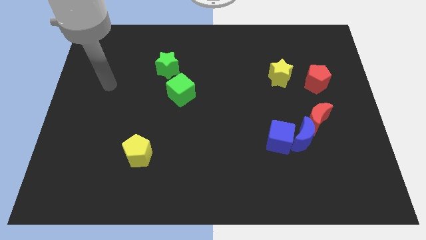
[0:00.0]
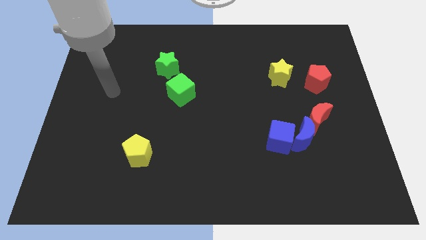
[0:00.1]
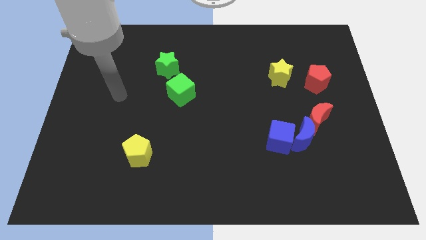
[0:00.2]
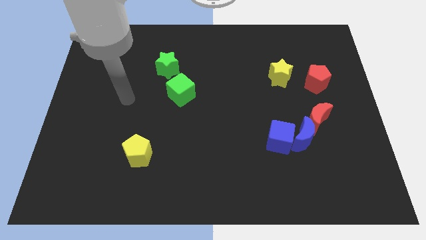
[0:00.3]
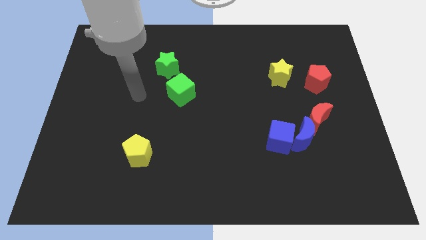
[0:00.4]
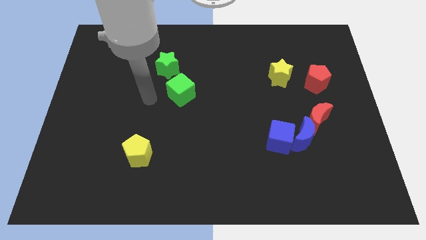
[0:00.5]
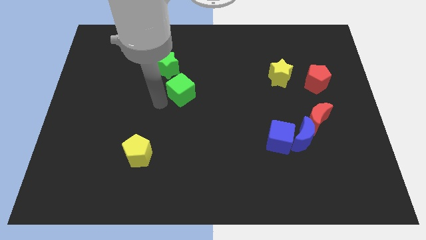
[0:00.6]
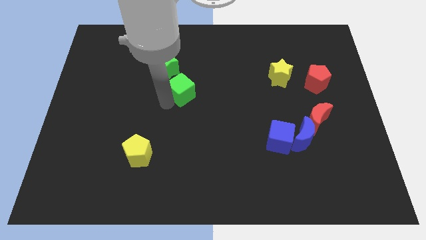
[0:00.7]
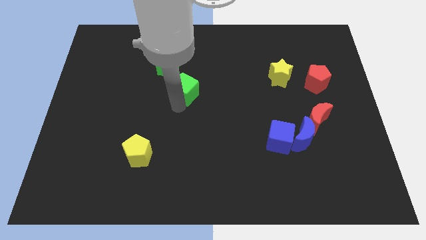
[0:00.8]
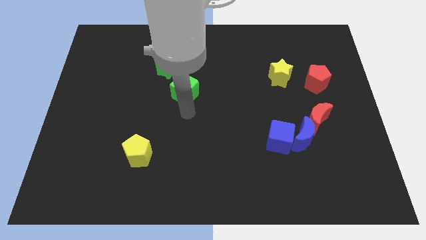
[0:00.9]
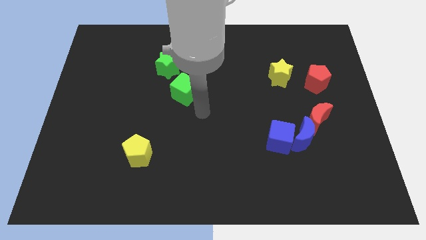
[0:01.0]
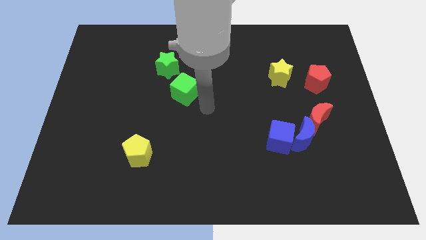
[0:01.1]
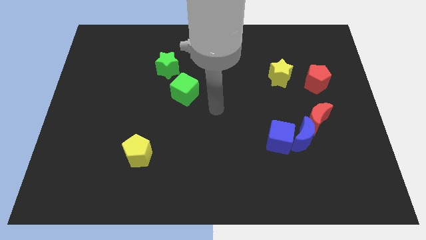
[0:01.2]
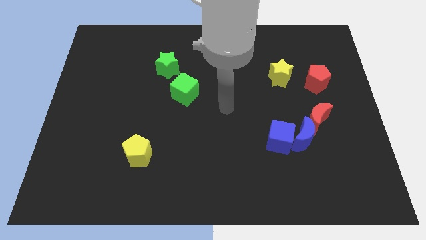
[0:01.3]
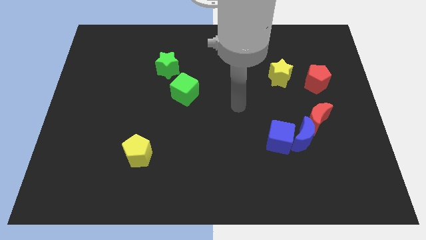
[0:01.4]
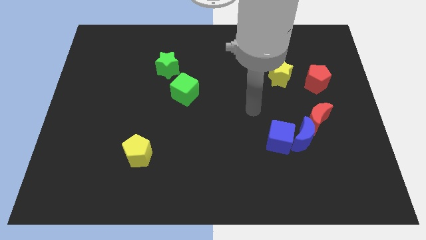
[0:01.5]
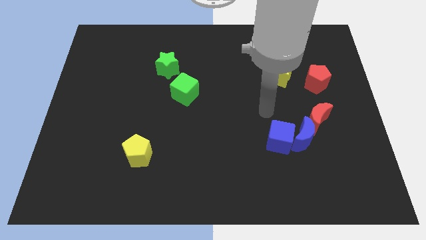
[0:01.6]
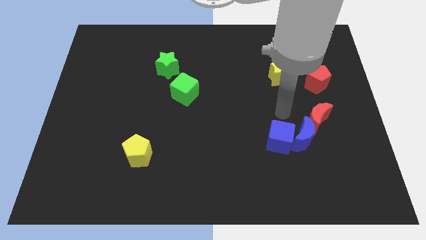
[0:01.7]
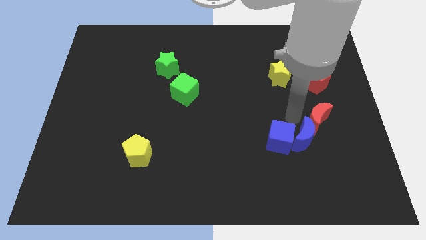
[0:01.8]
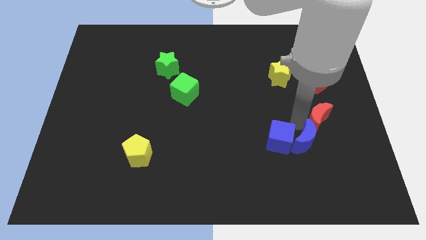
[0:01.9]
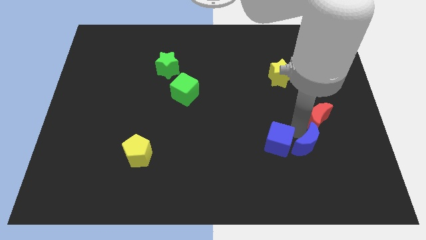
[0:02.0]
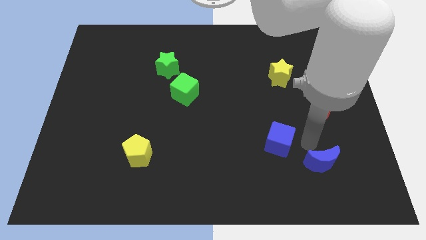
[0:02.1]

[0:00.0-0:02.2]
move the blue cube away from the blue moon

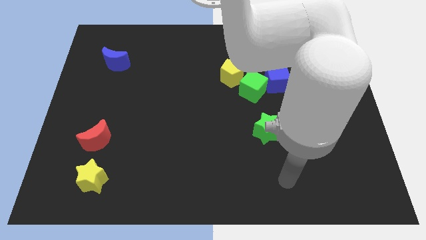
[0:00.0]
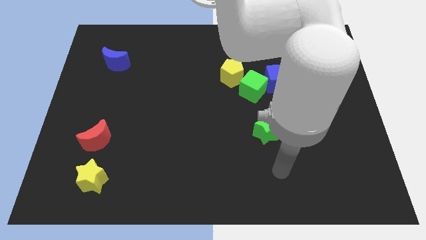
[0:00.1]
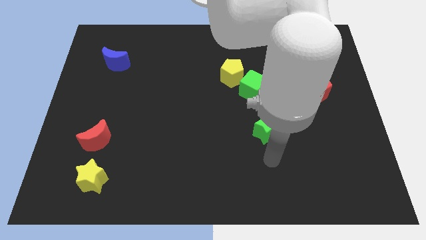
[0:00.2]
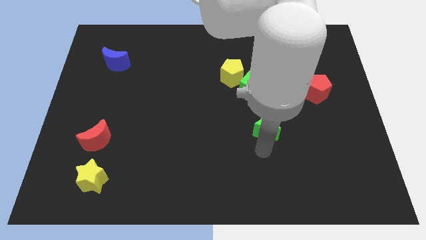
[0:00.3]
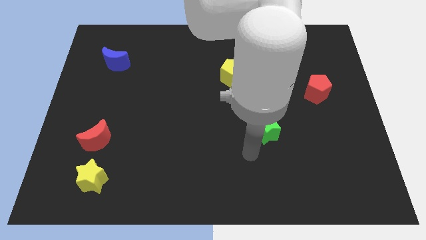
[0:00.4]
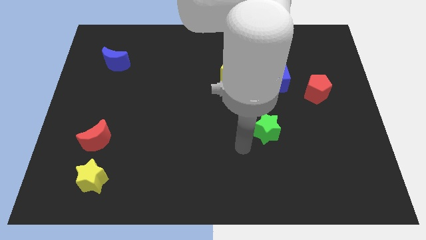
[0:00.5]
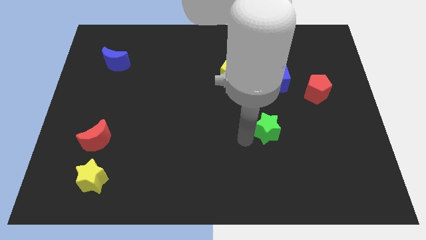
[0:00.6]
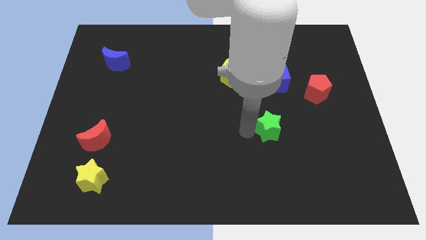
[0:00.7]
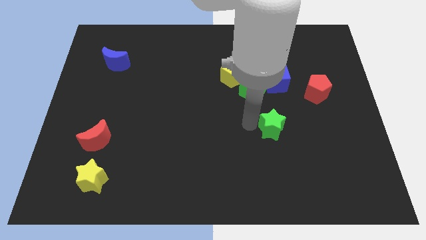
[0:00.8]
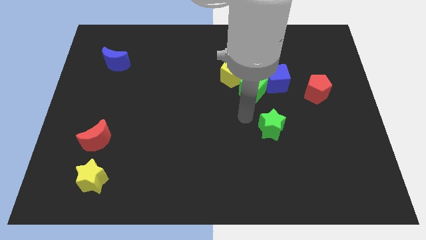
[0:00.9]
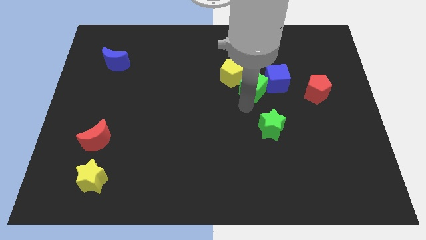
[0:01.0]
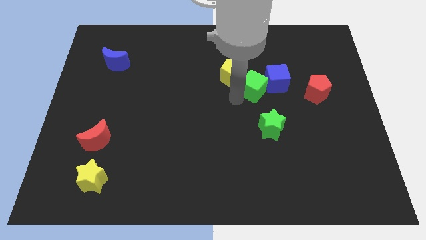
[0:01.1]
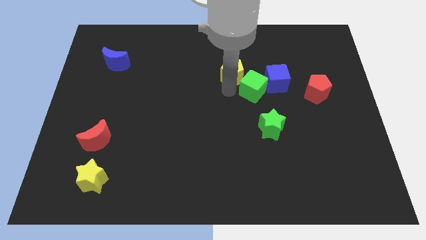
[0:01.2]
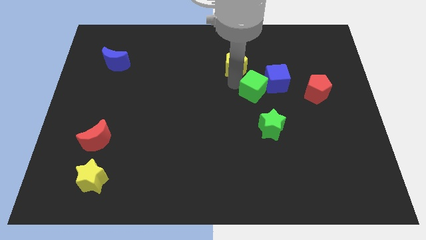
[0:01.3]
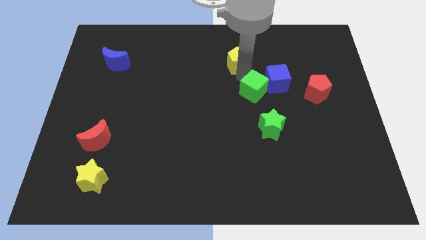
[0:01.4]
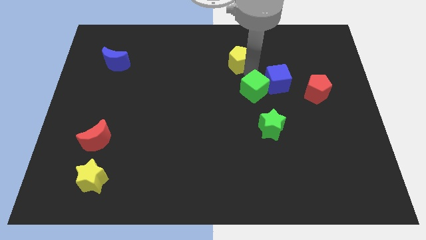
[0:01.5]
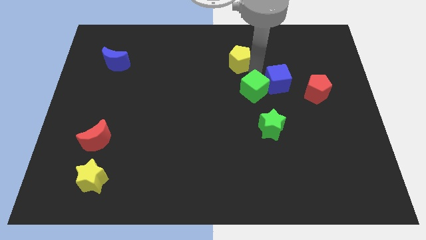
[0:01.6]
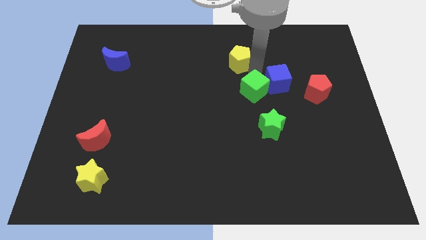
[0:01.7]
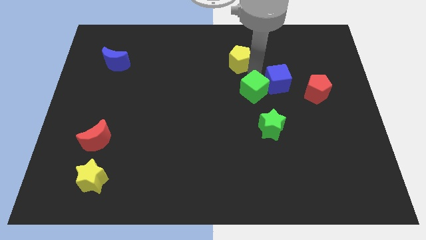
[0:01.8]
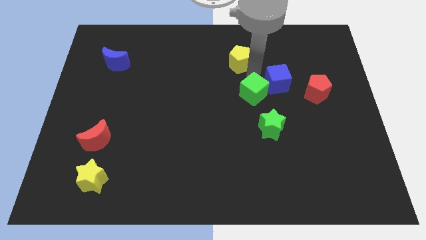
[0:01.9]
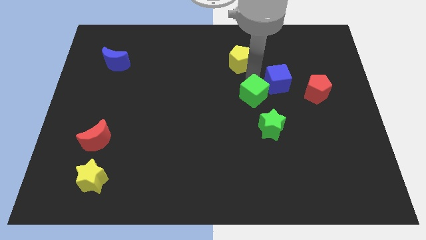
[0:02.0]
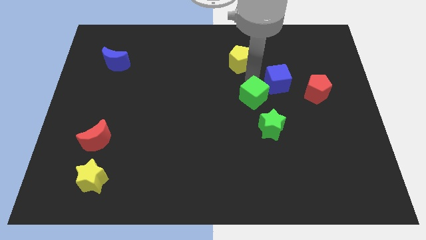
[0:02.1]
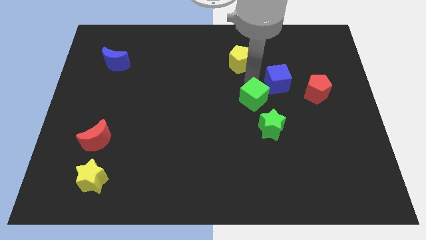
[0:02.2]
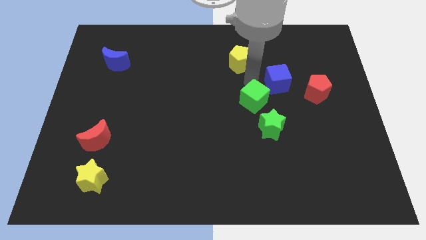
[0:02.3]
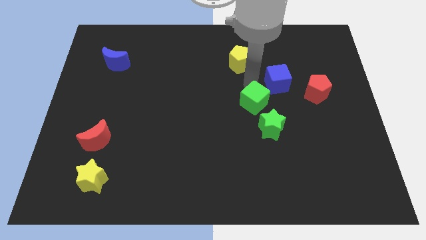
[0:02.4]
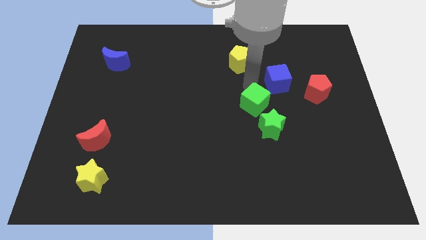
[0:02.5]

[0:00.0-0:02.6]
move the green cube away from the blue cube and yellow pentagon

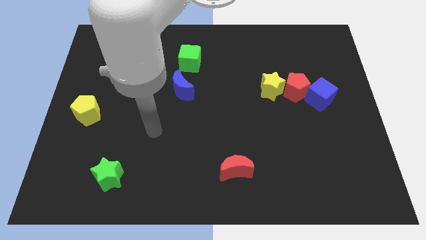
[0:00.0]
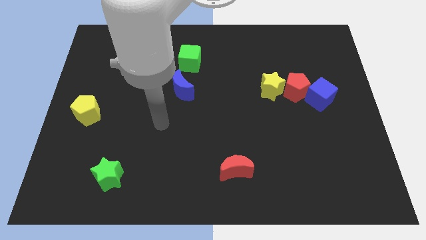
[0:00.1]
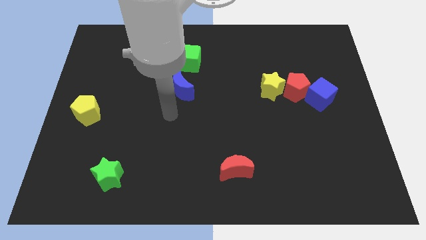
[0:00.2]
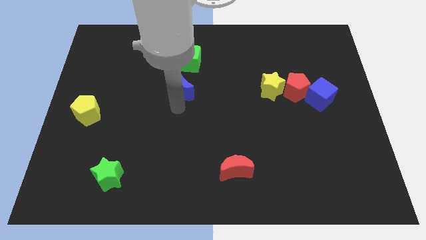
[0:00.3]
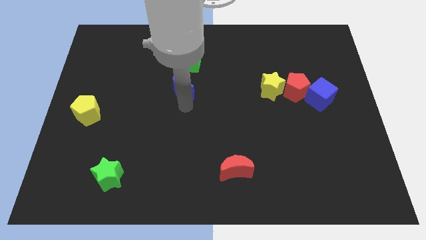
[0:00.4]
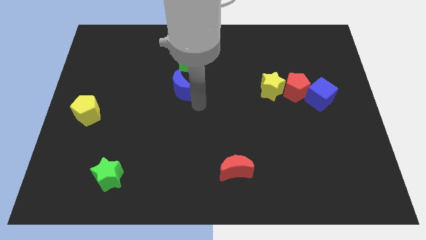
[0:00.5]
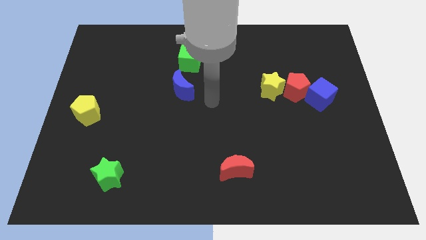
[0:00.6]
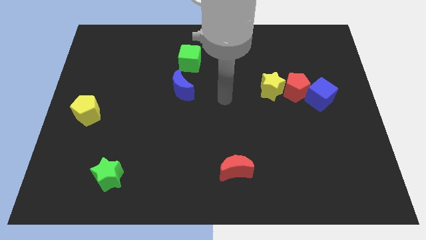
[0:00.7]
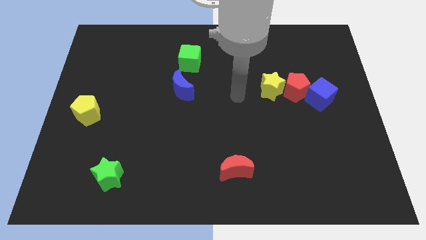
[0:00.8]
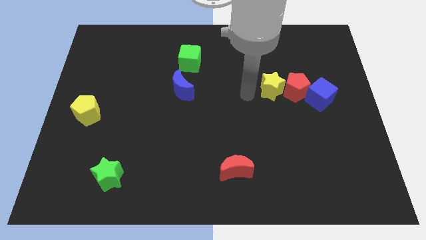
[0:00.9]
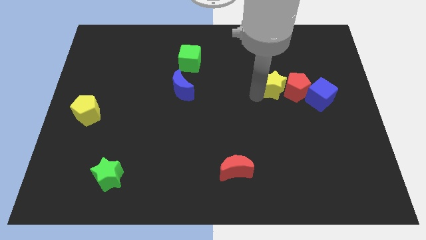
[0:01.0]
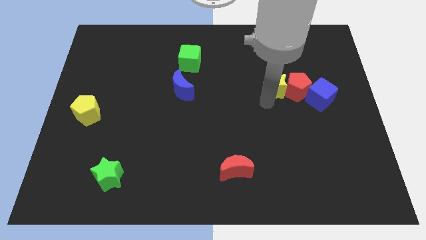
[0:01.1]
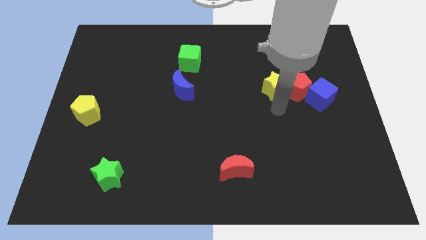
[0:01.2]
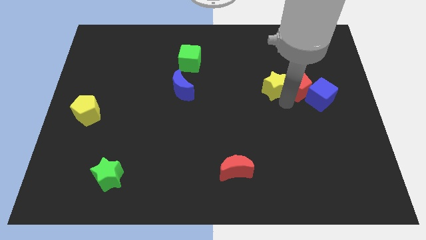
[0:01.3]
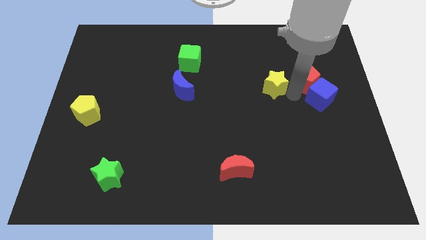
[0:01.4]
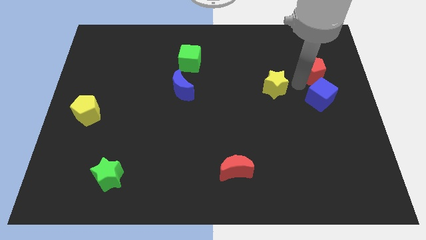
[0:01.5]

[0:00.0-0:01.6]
separate the yellow star from the red pentagon

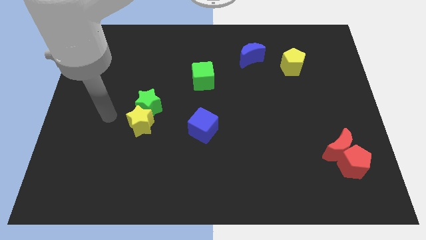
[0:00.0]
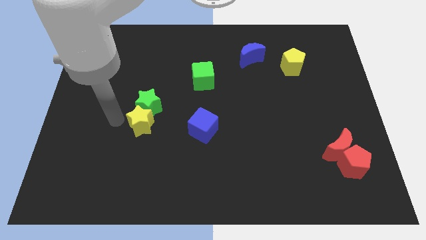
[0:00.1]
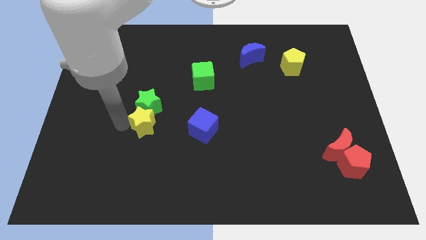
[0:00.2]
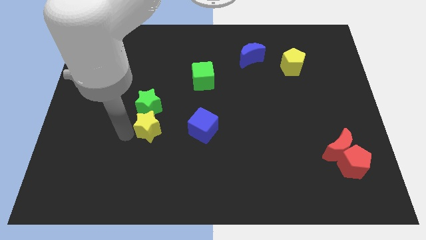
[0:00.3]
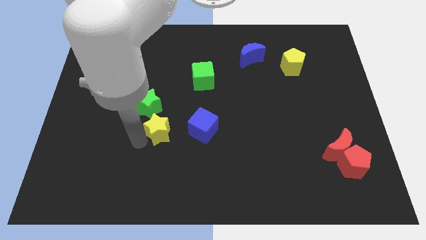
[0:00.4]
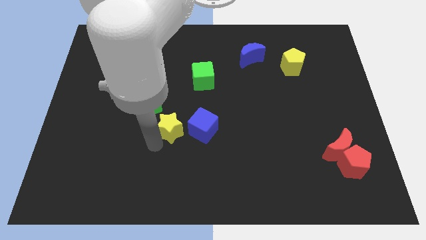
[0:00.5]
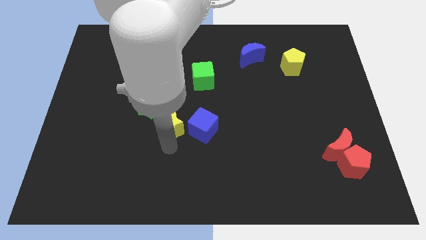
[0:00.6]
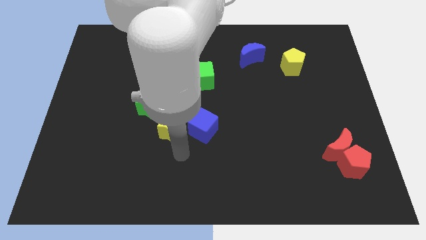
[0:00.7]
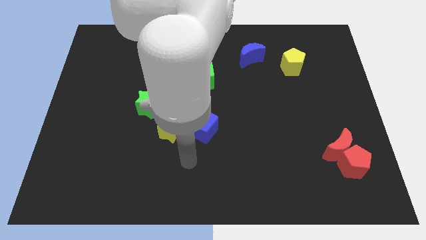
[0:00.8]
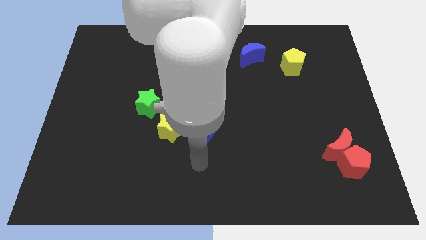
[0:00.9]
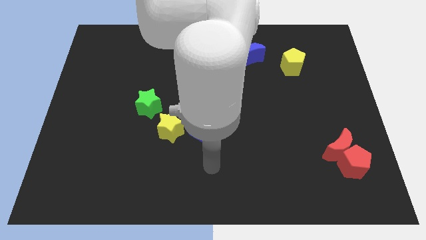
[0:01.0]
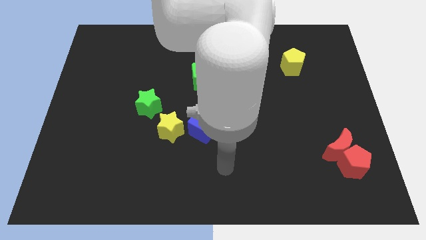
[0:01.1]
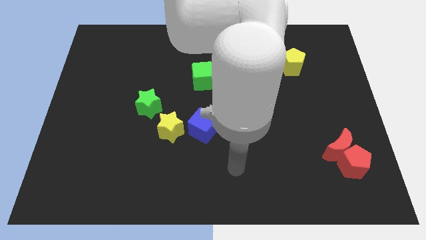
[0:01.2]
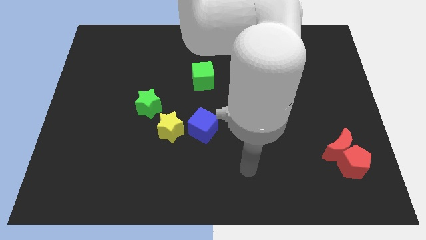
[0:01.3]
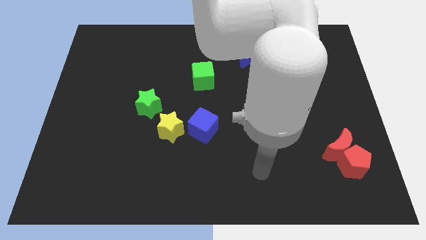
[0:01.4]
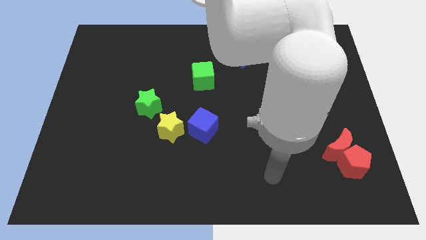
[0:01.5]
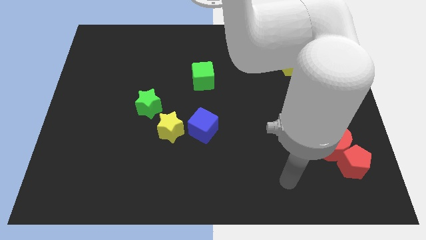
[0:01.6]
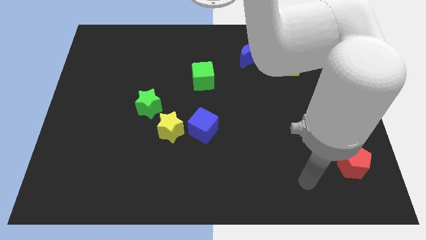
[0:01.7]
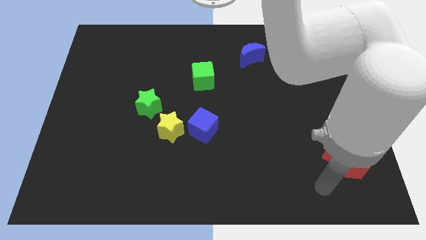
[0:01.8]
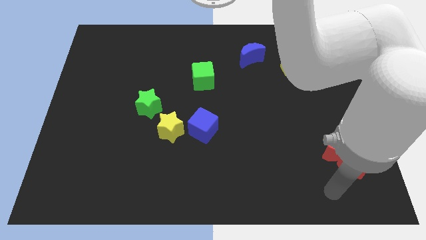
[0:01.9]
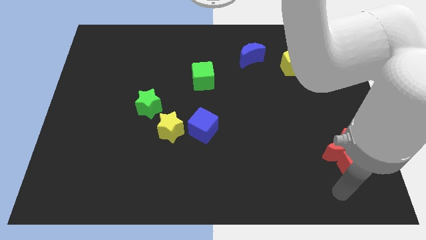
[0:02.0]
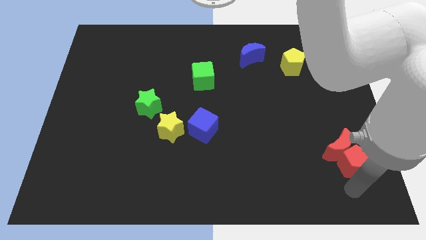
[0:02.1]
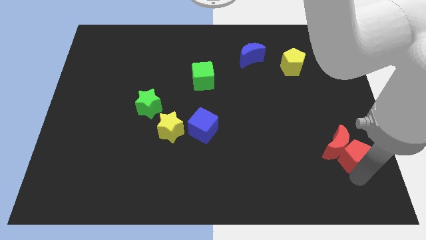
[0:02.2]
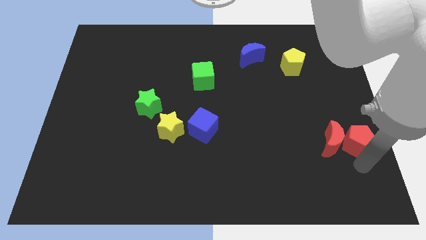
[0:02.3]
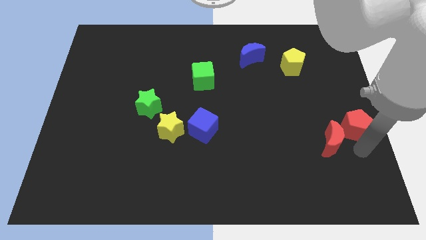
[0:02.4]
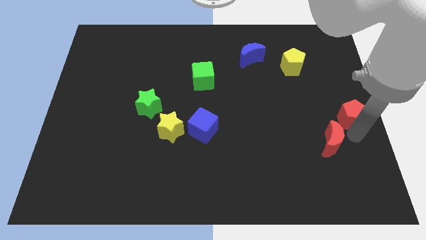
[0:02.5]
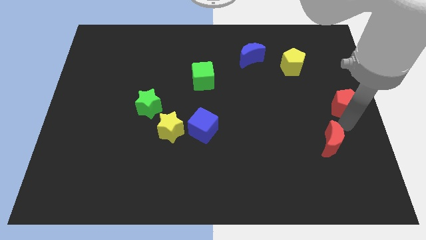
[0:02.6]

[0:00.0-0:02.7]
separate the red moon from the red pentagon

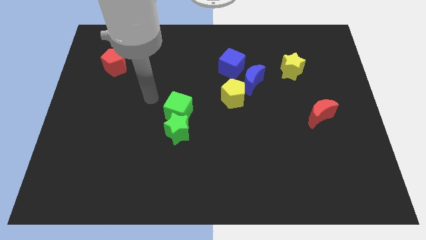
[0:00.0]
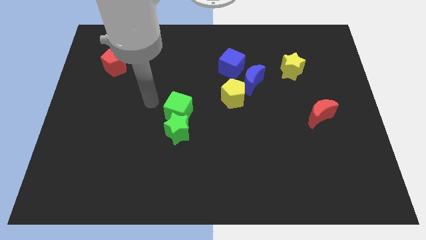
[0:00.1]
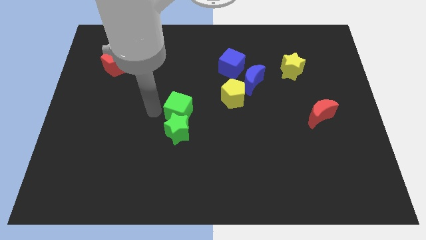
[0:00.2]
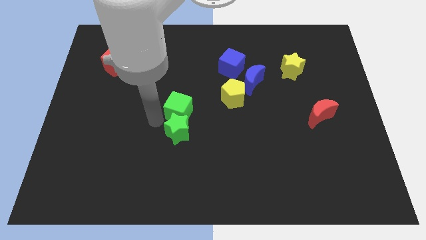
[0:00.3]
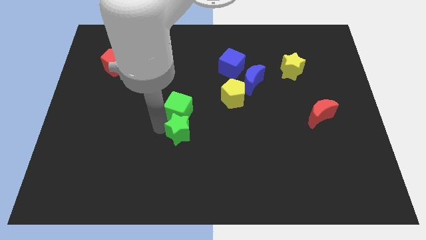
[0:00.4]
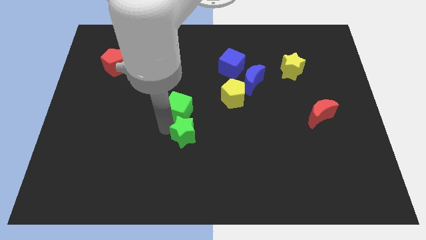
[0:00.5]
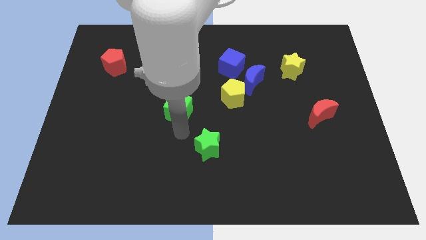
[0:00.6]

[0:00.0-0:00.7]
move the green cube away from the green star
